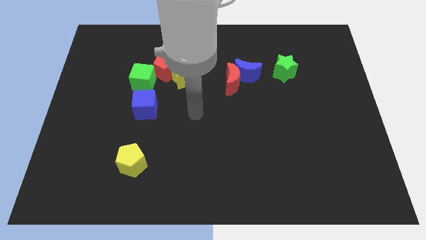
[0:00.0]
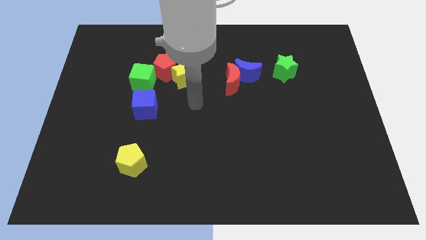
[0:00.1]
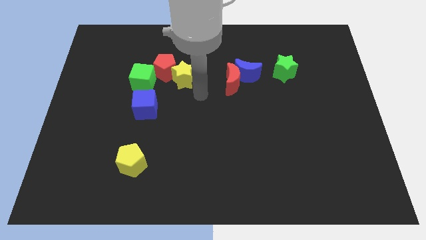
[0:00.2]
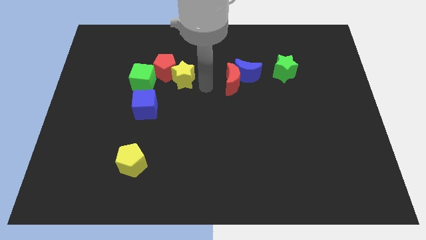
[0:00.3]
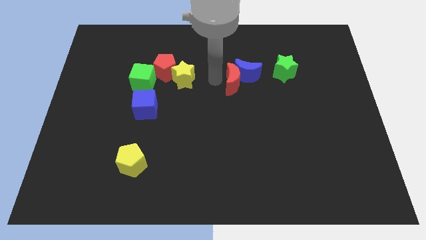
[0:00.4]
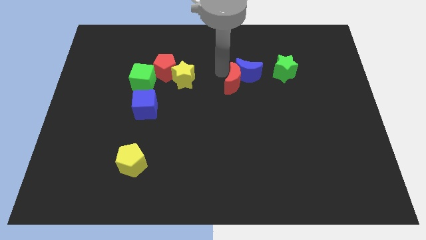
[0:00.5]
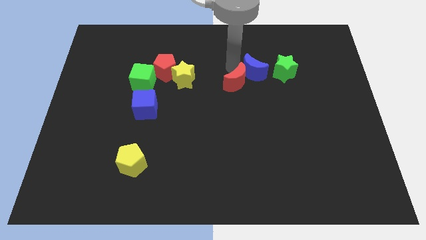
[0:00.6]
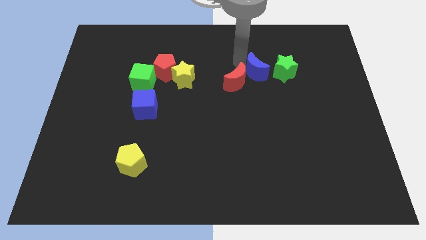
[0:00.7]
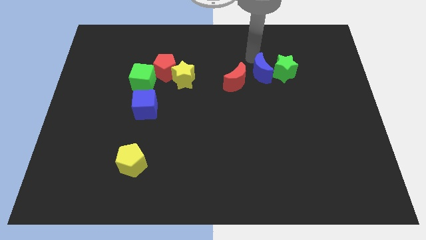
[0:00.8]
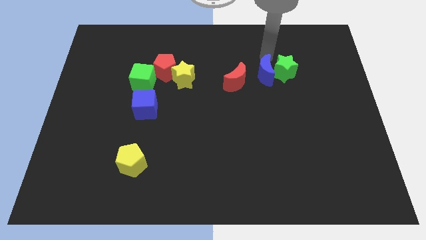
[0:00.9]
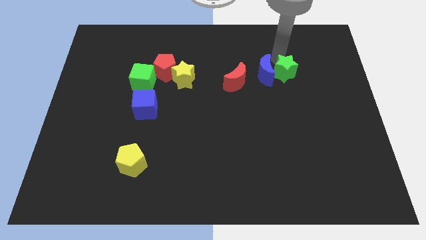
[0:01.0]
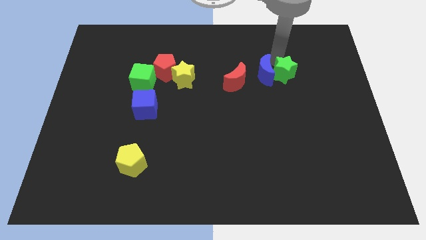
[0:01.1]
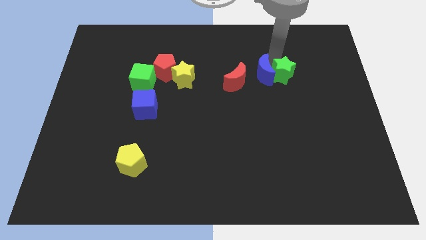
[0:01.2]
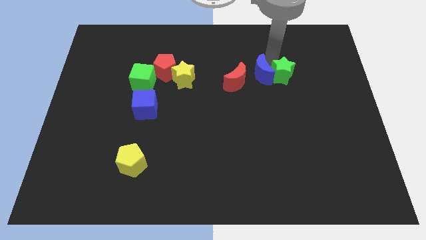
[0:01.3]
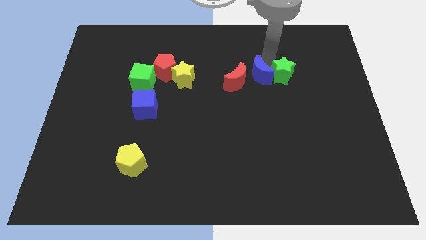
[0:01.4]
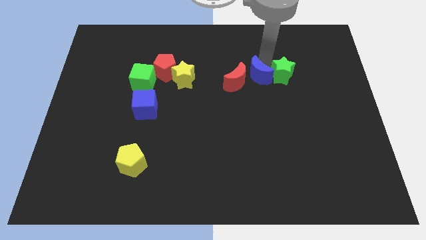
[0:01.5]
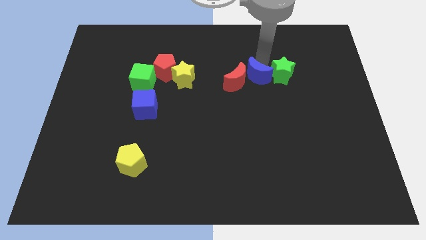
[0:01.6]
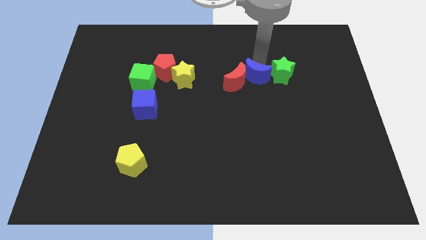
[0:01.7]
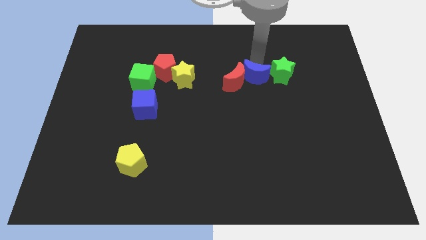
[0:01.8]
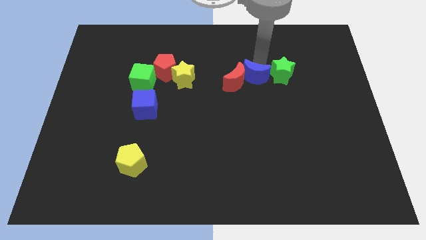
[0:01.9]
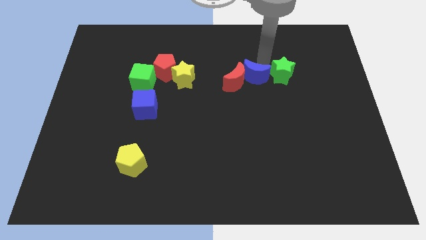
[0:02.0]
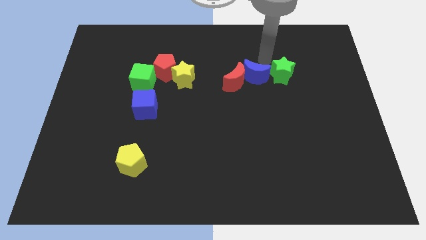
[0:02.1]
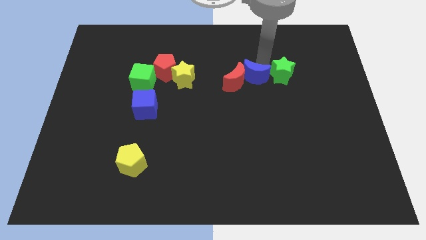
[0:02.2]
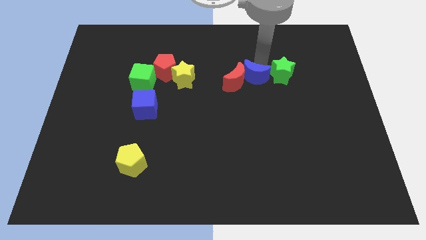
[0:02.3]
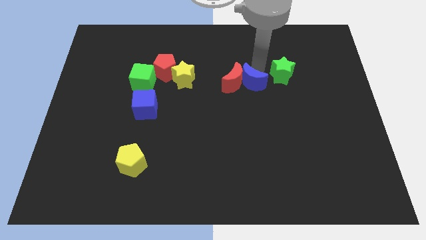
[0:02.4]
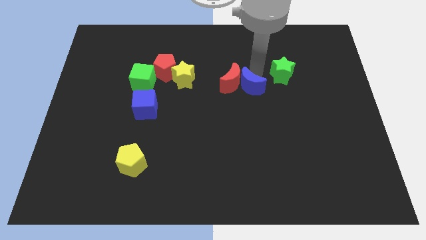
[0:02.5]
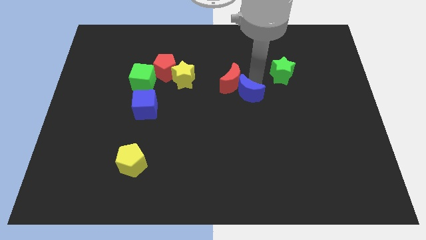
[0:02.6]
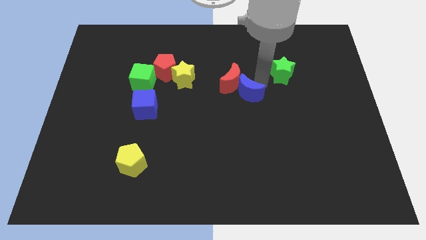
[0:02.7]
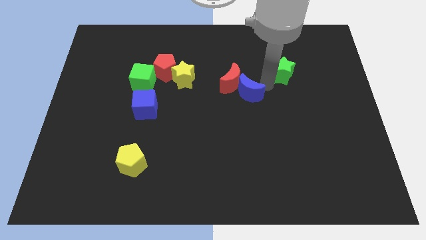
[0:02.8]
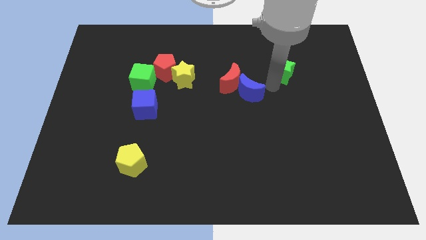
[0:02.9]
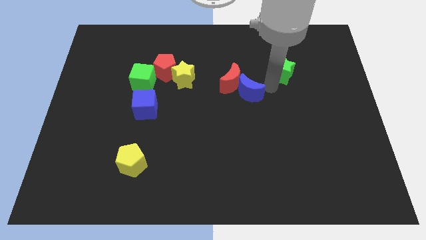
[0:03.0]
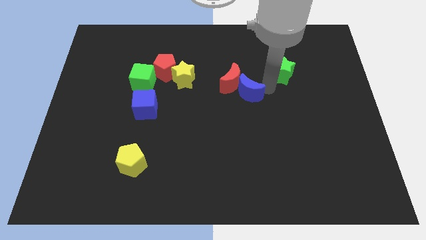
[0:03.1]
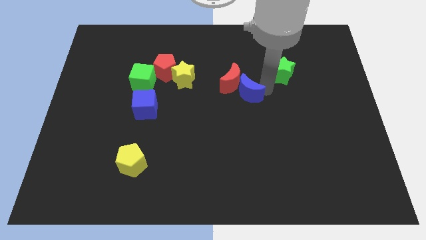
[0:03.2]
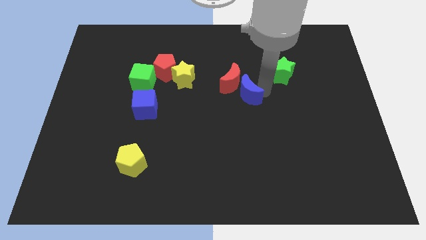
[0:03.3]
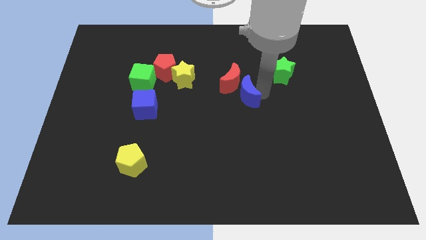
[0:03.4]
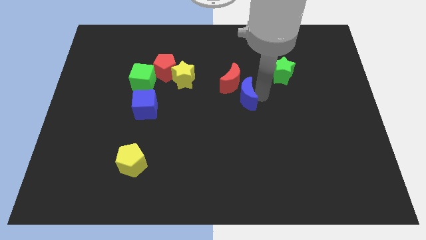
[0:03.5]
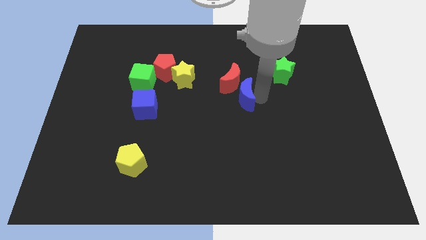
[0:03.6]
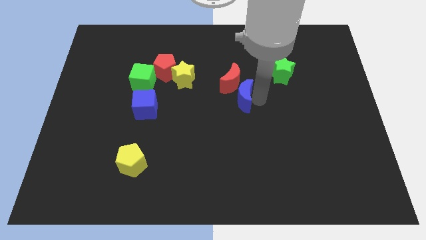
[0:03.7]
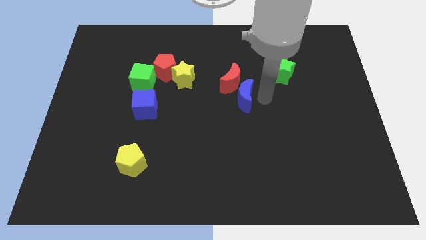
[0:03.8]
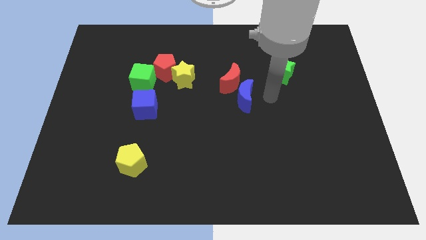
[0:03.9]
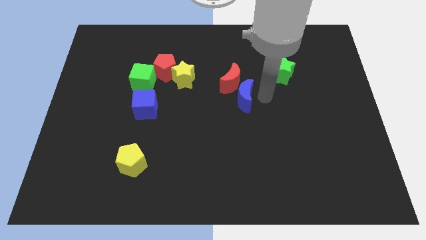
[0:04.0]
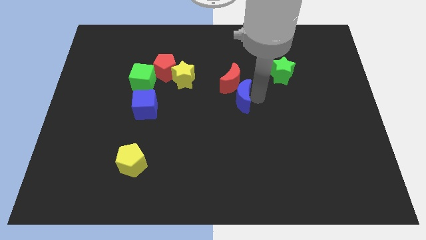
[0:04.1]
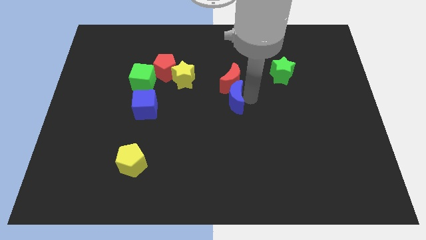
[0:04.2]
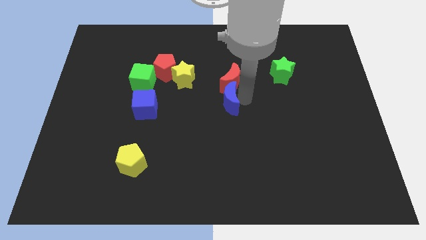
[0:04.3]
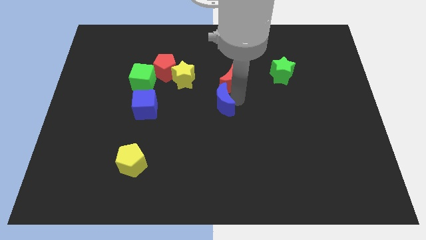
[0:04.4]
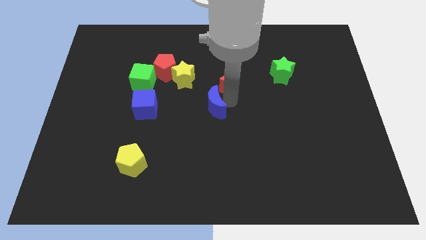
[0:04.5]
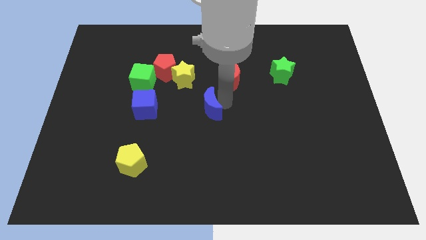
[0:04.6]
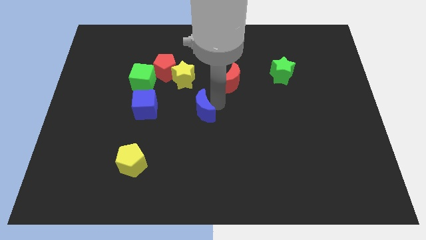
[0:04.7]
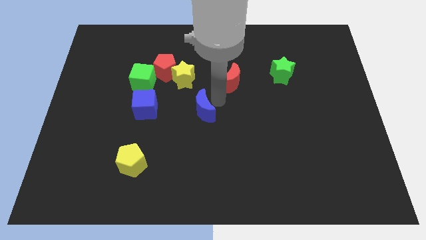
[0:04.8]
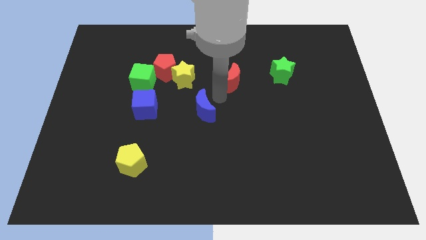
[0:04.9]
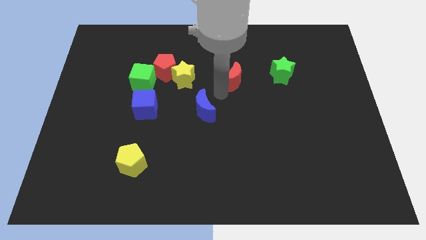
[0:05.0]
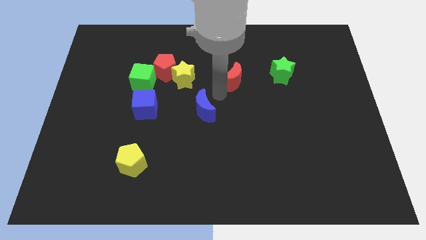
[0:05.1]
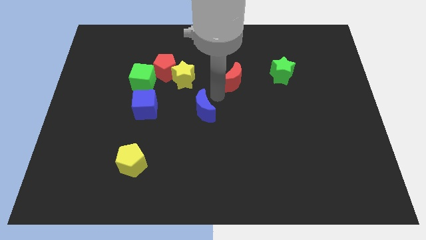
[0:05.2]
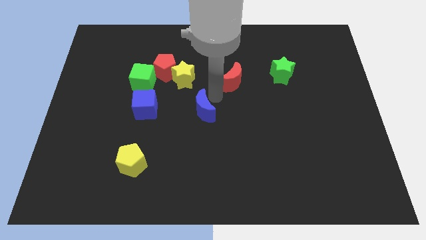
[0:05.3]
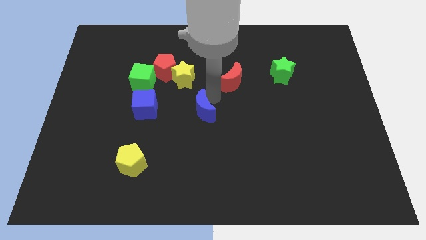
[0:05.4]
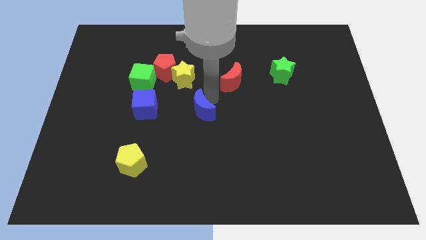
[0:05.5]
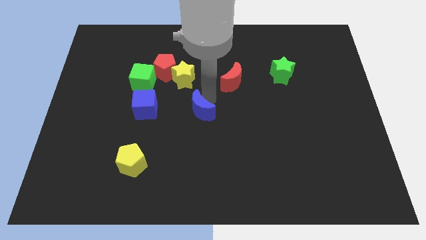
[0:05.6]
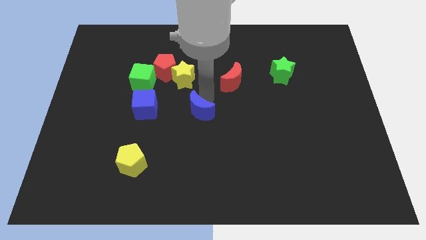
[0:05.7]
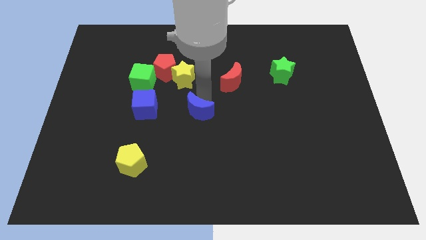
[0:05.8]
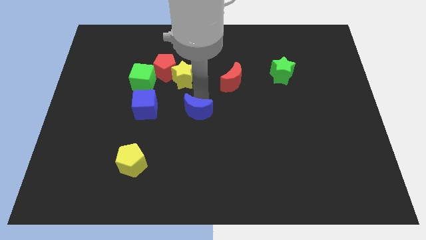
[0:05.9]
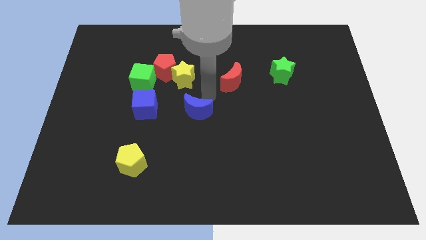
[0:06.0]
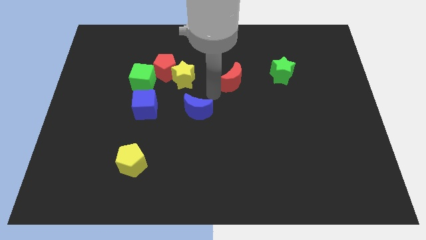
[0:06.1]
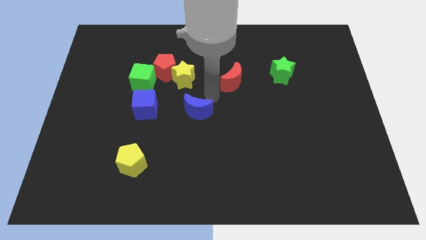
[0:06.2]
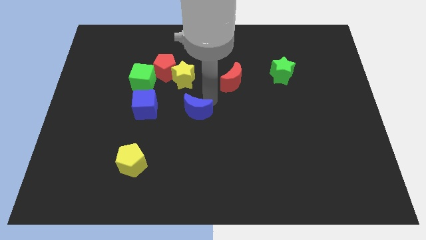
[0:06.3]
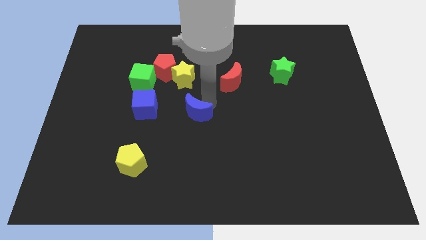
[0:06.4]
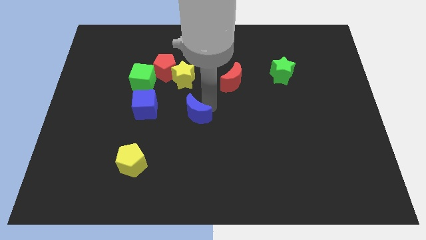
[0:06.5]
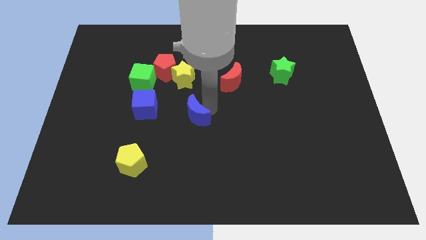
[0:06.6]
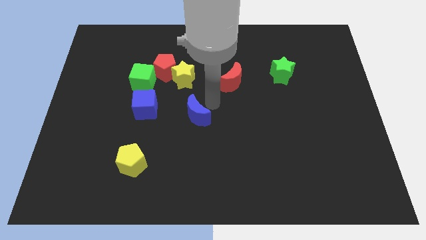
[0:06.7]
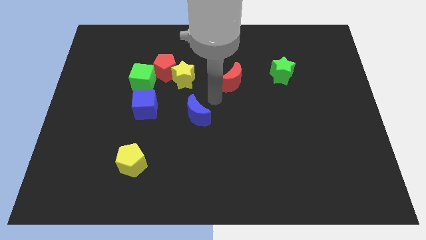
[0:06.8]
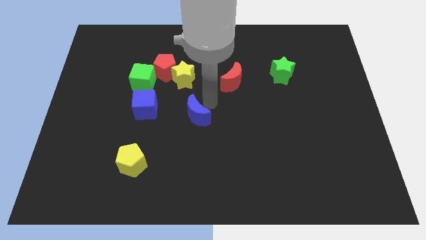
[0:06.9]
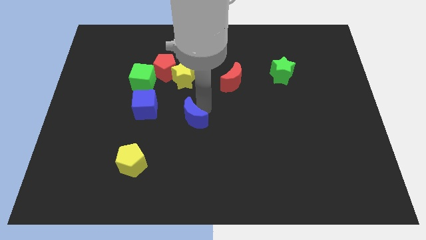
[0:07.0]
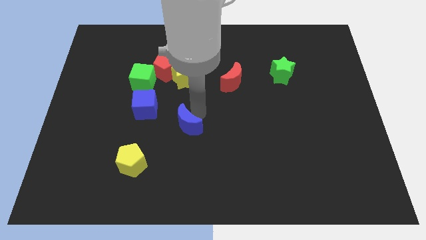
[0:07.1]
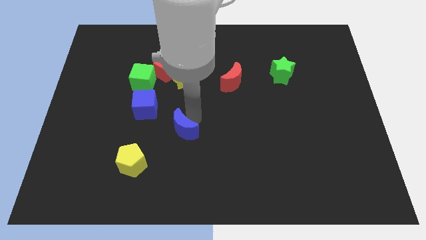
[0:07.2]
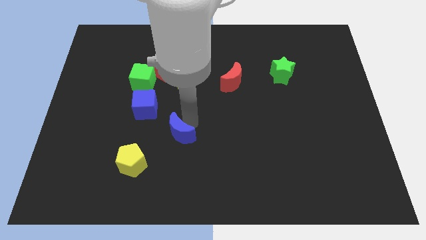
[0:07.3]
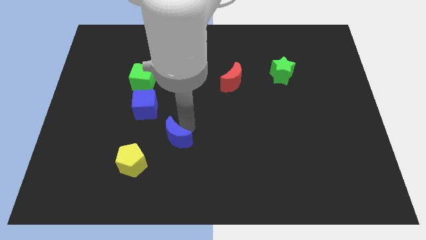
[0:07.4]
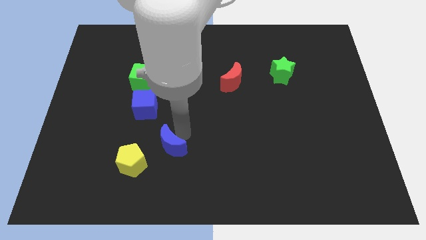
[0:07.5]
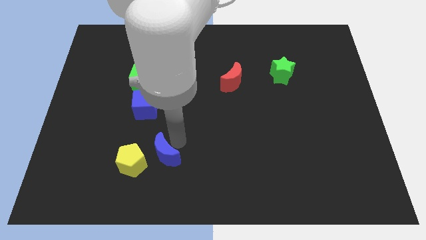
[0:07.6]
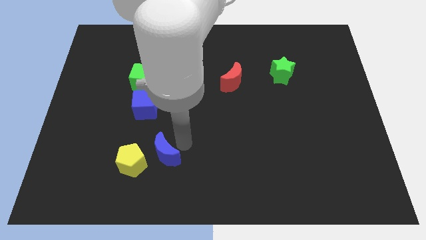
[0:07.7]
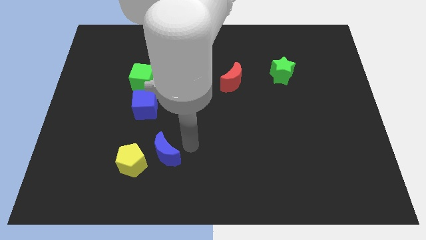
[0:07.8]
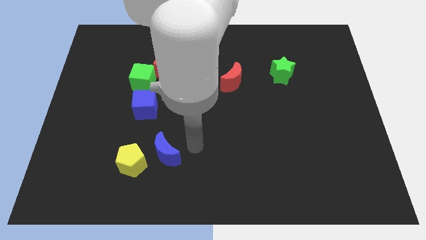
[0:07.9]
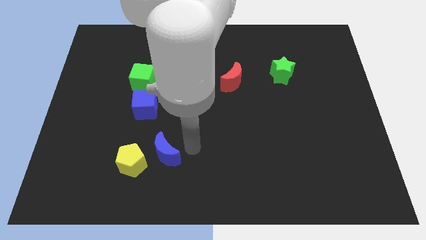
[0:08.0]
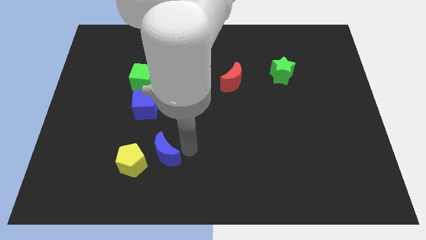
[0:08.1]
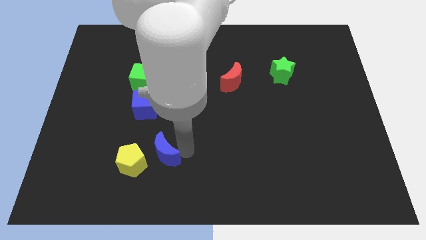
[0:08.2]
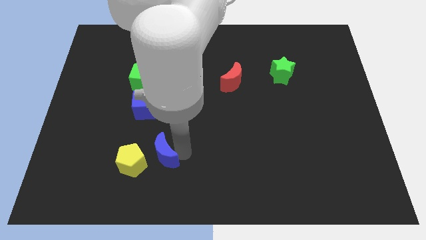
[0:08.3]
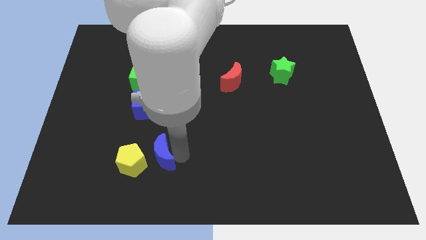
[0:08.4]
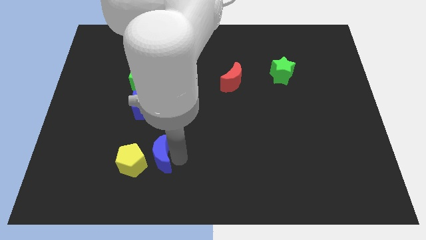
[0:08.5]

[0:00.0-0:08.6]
put the blue moon next to the yellow pentagon
